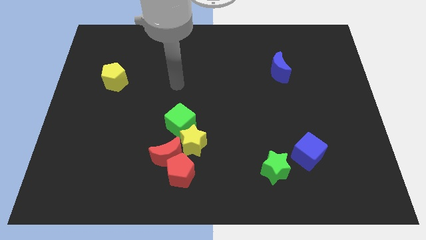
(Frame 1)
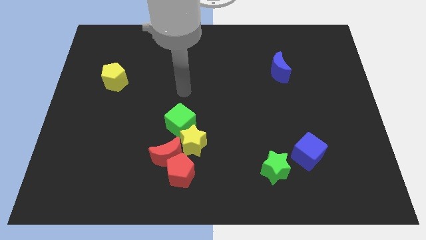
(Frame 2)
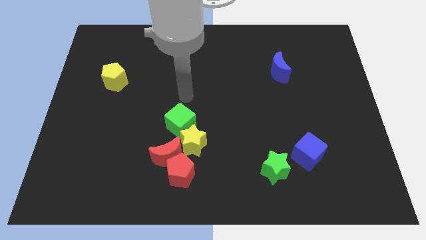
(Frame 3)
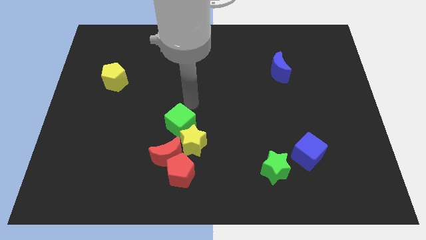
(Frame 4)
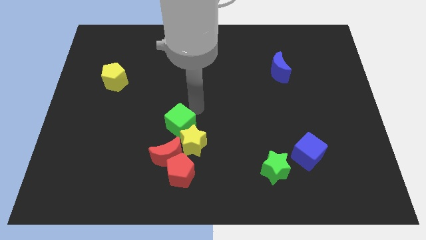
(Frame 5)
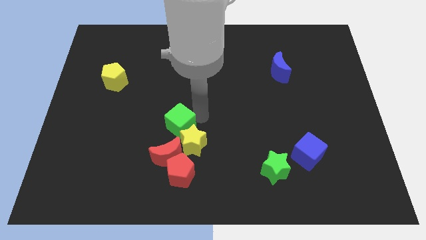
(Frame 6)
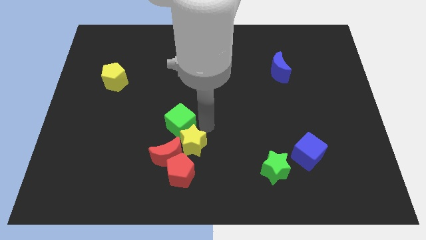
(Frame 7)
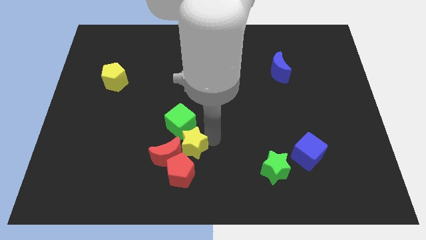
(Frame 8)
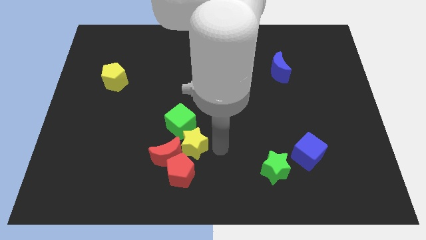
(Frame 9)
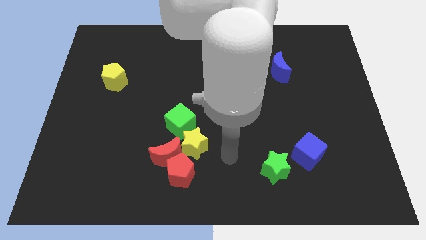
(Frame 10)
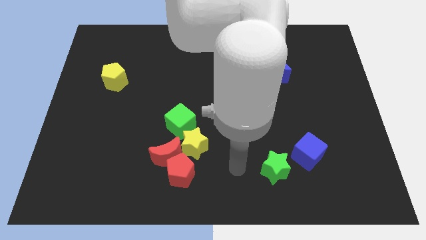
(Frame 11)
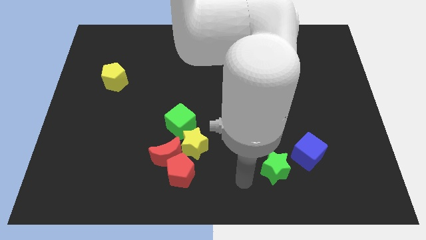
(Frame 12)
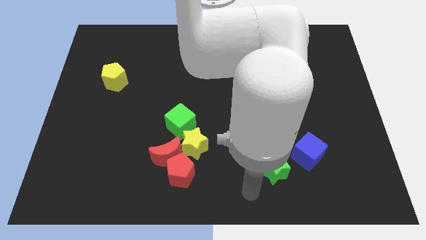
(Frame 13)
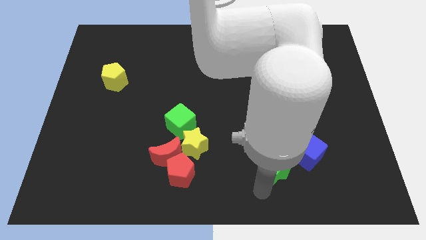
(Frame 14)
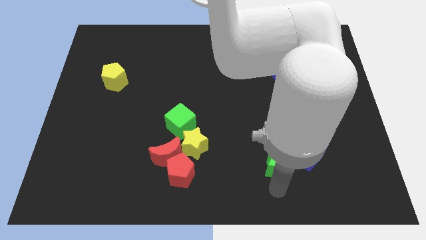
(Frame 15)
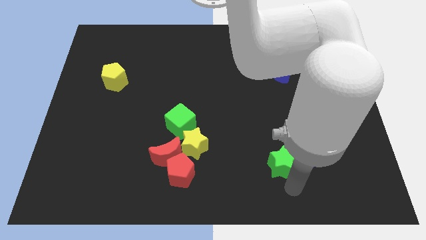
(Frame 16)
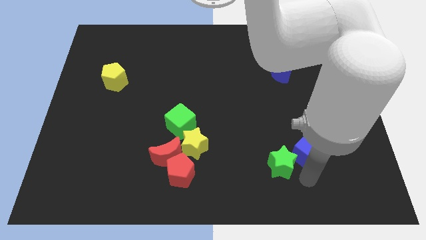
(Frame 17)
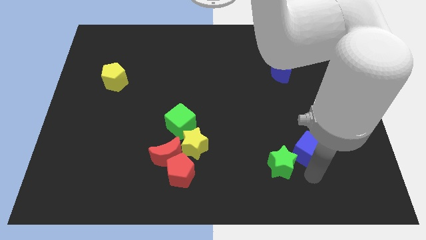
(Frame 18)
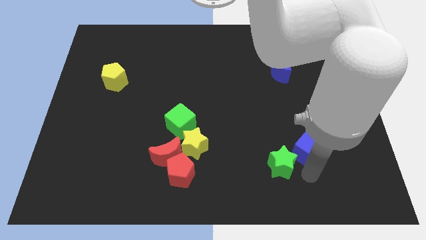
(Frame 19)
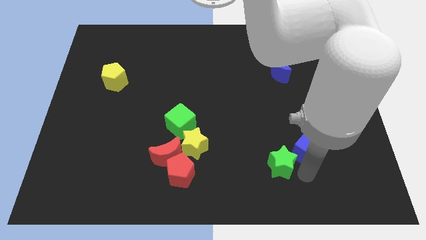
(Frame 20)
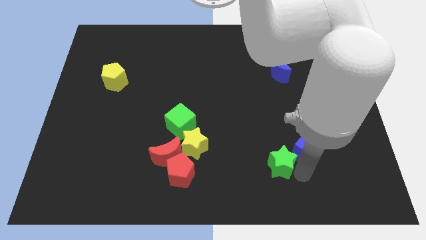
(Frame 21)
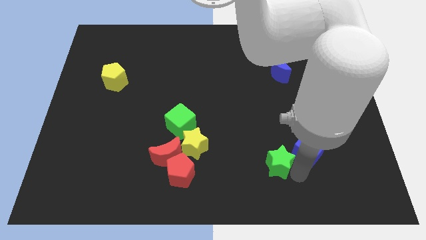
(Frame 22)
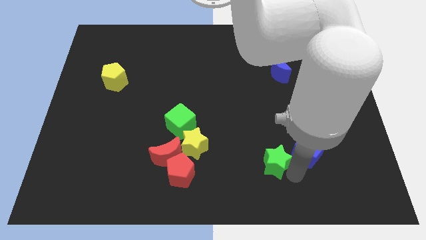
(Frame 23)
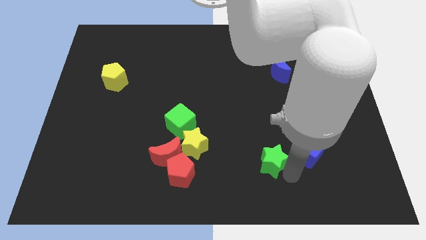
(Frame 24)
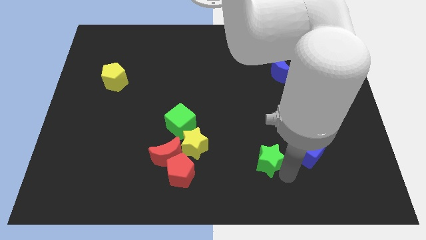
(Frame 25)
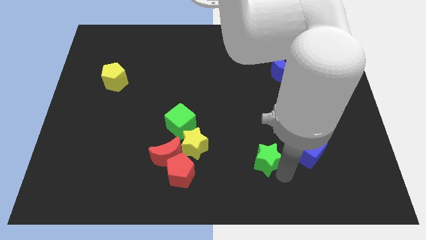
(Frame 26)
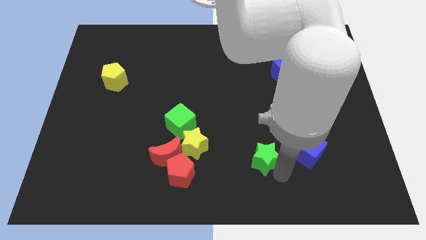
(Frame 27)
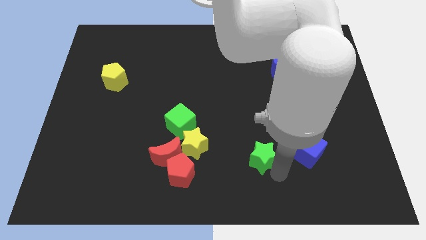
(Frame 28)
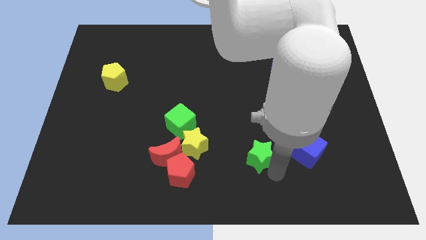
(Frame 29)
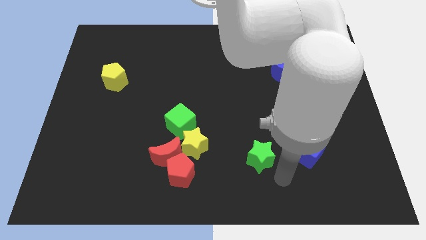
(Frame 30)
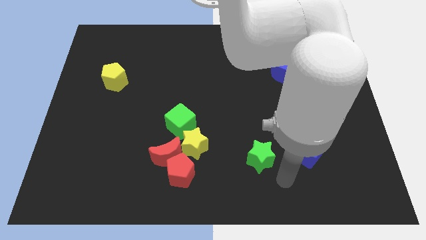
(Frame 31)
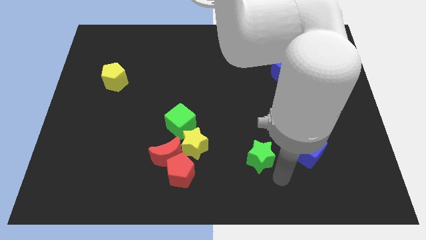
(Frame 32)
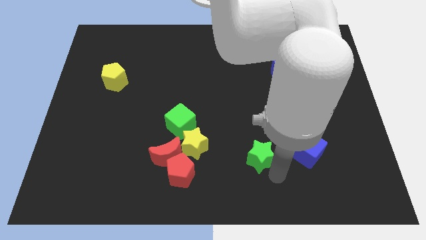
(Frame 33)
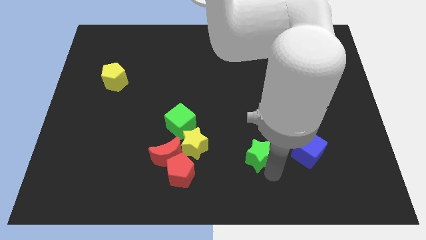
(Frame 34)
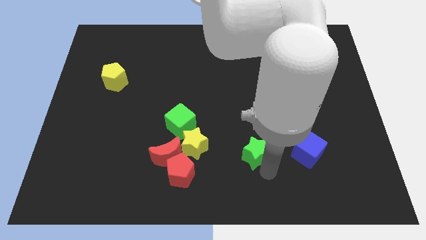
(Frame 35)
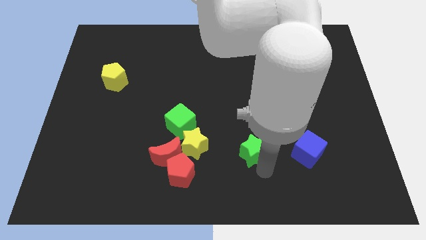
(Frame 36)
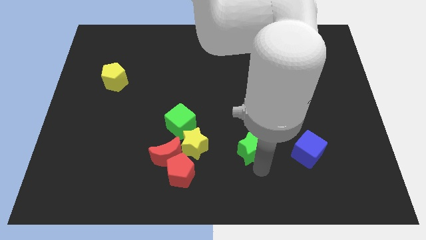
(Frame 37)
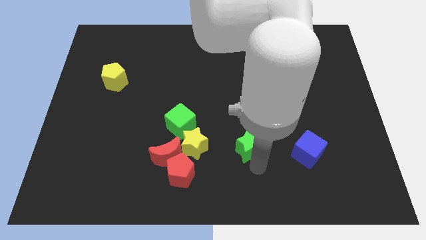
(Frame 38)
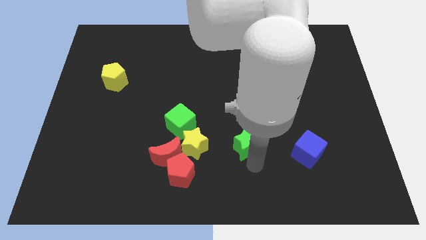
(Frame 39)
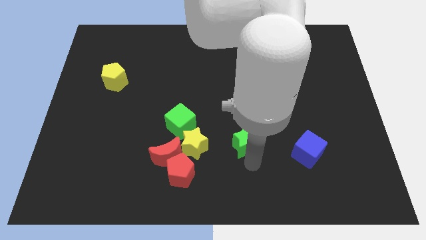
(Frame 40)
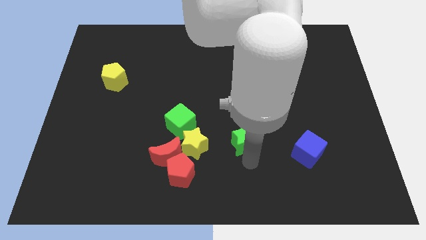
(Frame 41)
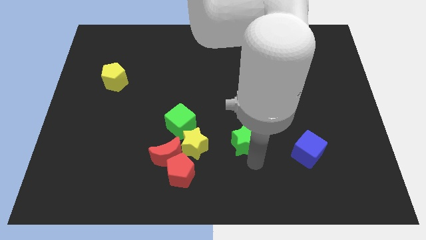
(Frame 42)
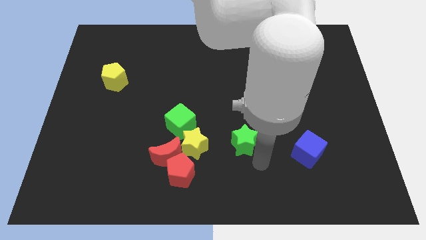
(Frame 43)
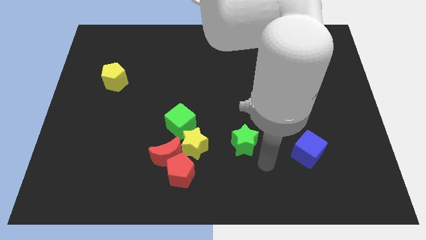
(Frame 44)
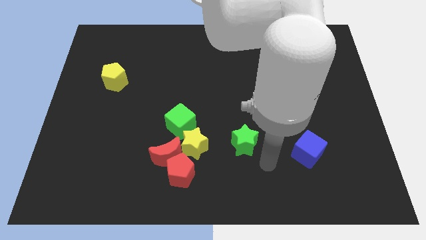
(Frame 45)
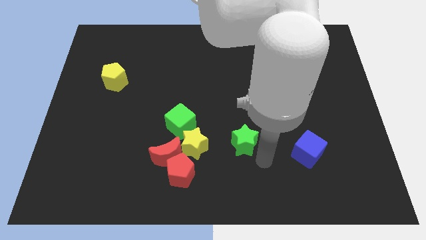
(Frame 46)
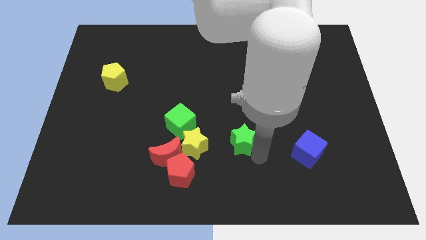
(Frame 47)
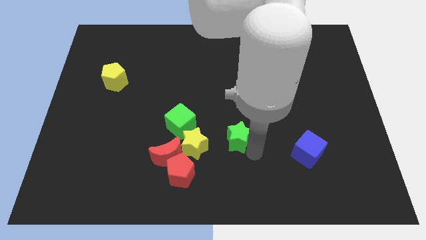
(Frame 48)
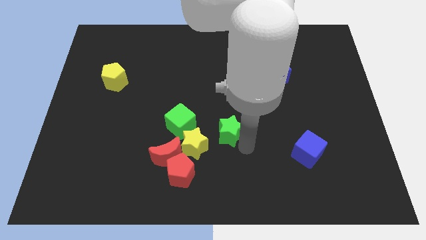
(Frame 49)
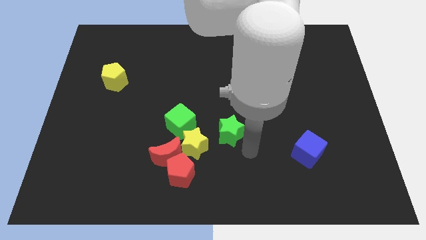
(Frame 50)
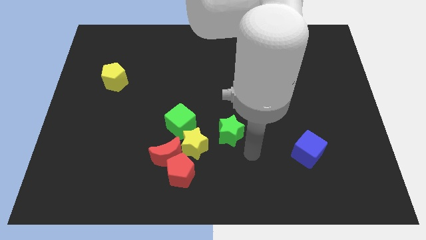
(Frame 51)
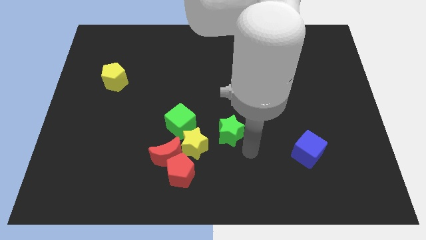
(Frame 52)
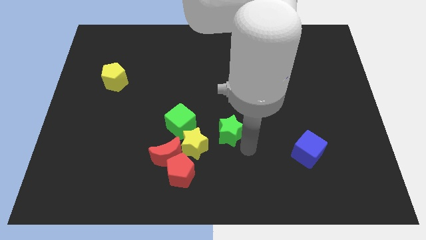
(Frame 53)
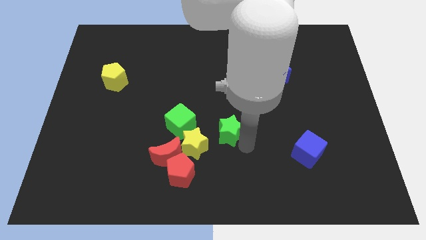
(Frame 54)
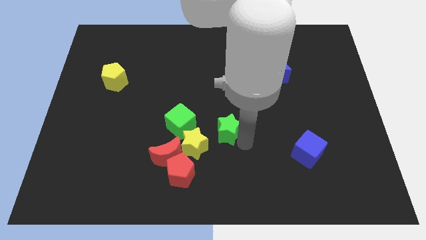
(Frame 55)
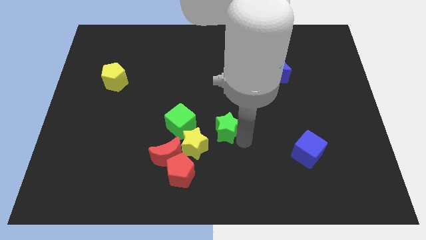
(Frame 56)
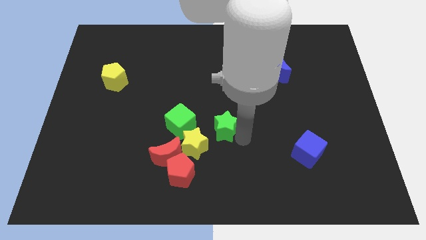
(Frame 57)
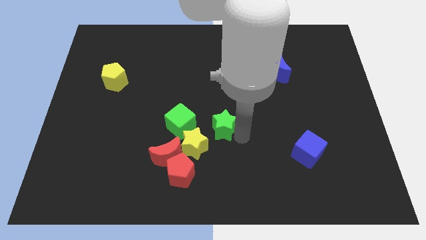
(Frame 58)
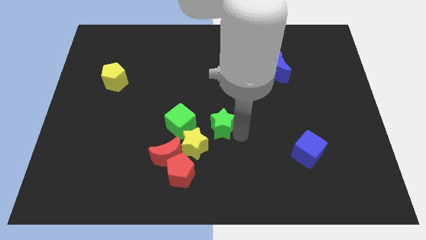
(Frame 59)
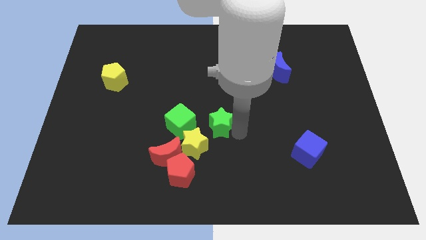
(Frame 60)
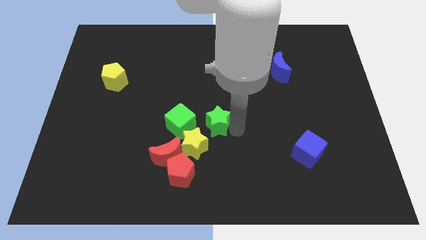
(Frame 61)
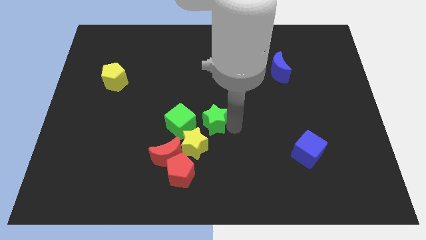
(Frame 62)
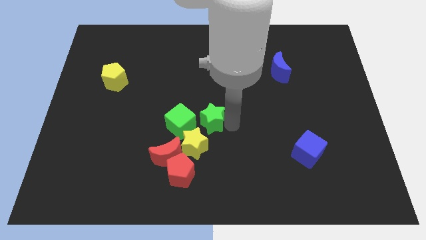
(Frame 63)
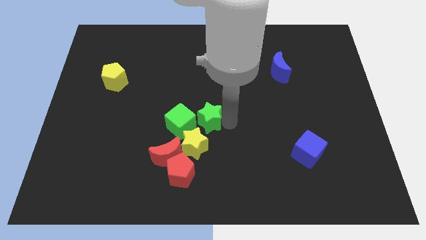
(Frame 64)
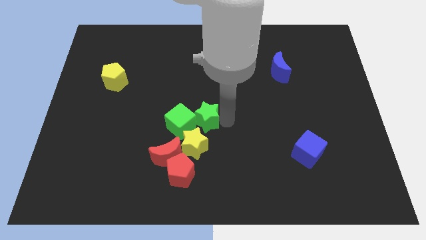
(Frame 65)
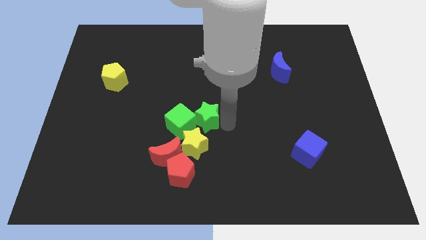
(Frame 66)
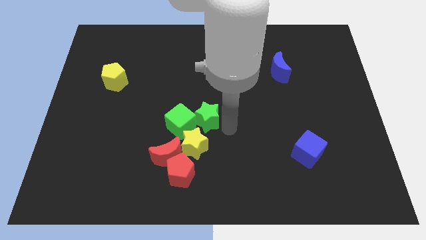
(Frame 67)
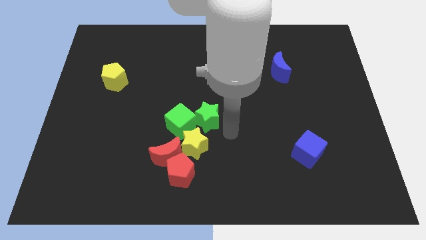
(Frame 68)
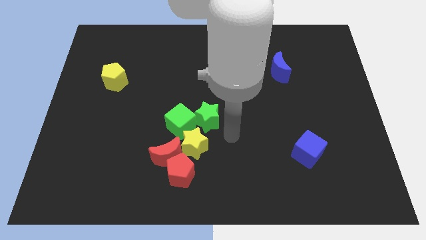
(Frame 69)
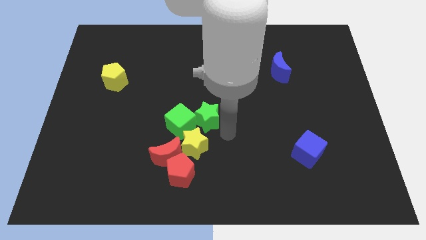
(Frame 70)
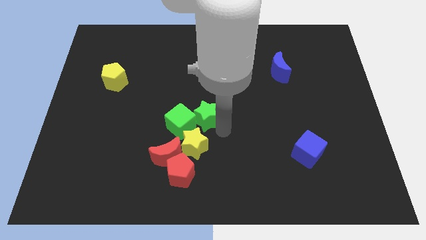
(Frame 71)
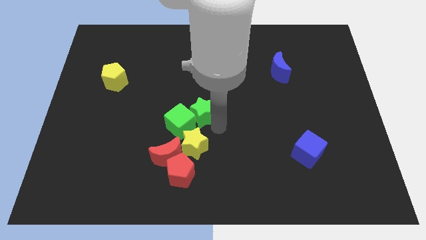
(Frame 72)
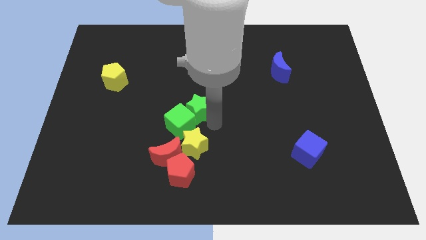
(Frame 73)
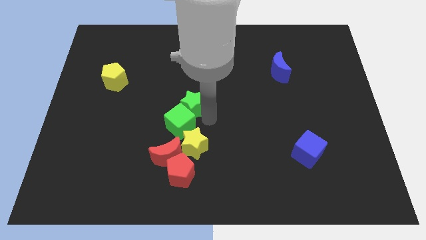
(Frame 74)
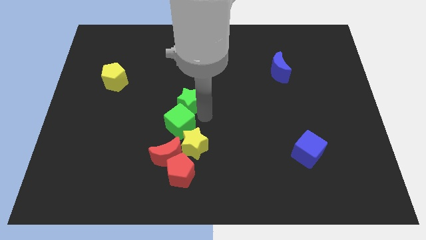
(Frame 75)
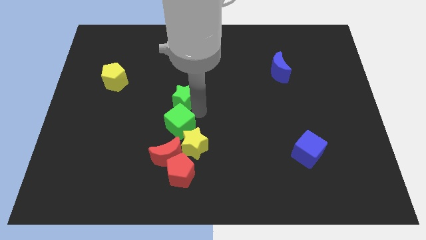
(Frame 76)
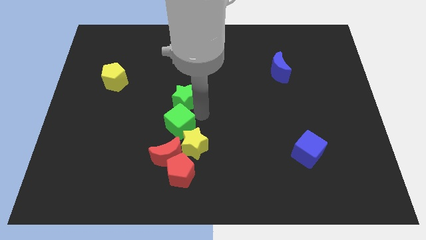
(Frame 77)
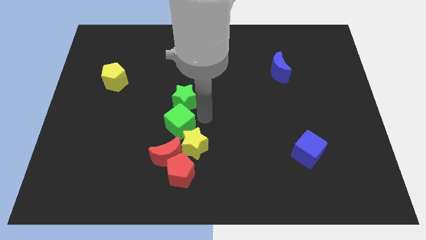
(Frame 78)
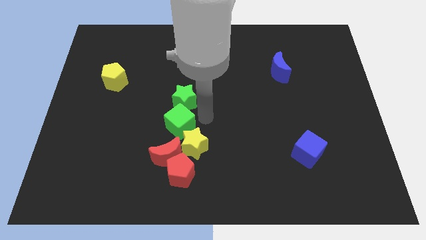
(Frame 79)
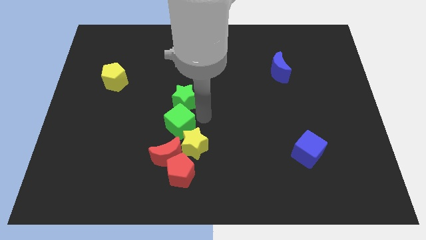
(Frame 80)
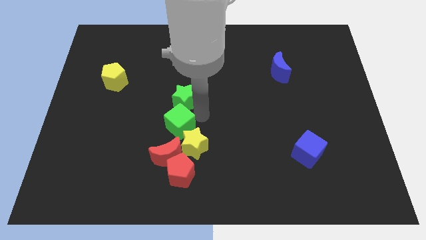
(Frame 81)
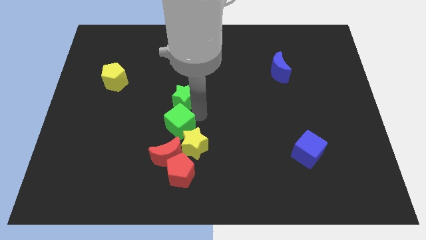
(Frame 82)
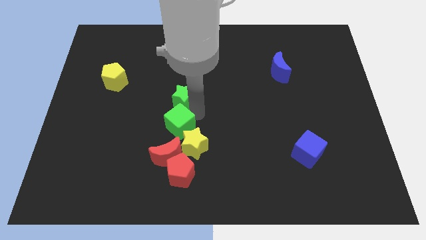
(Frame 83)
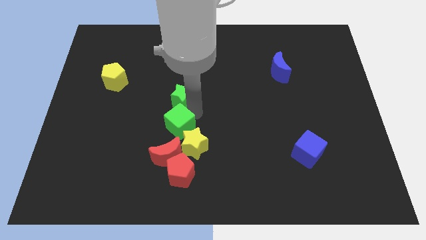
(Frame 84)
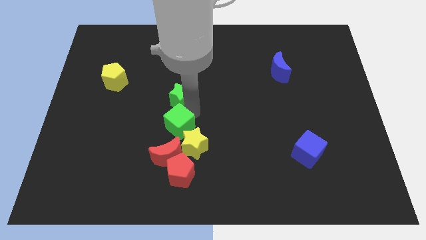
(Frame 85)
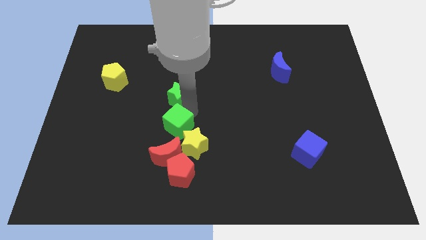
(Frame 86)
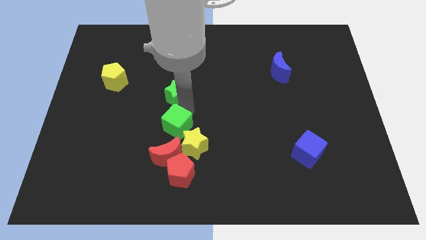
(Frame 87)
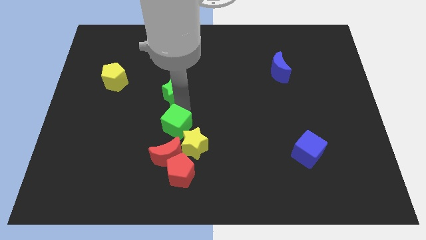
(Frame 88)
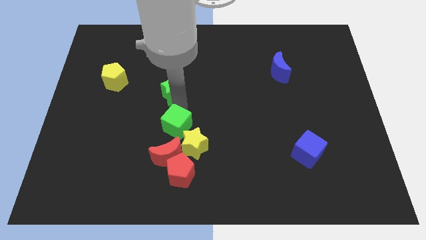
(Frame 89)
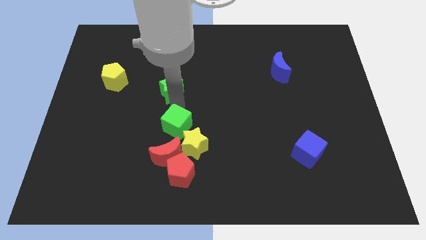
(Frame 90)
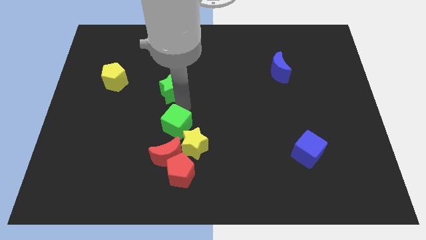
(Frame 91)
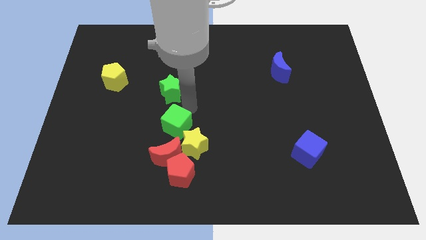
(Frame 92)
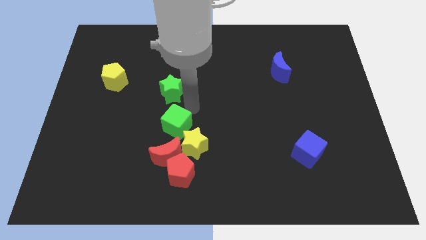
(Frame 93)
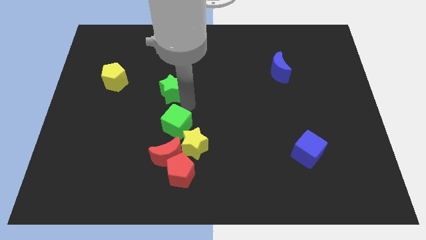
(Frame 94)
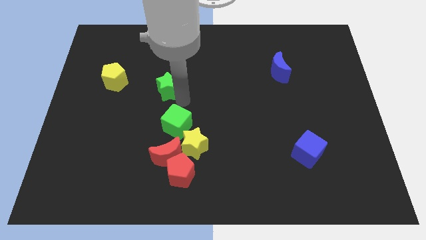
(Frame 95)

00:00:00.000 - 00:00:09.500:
move the green star just right of the yellow pentagon
